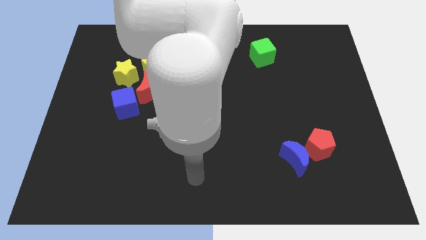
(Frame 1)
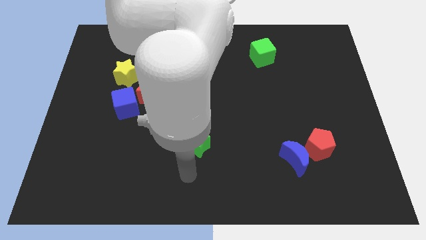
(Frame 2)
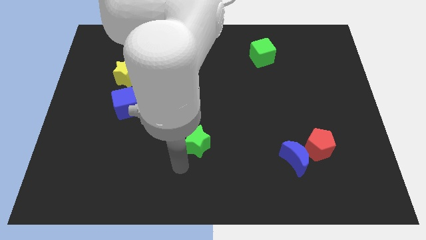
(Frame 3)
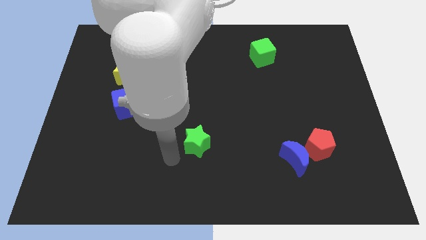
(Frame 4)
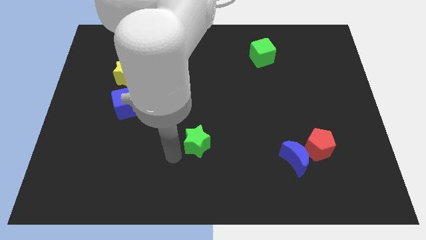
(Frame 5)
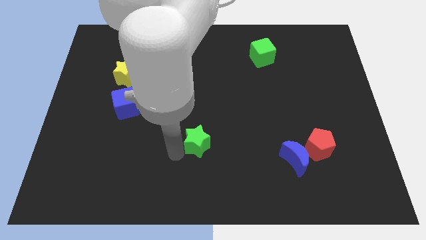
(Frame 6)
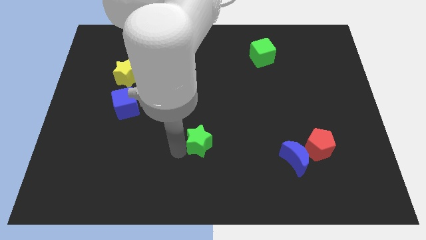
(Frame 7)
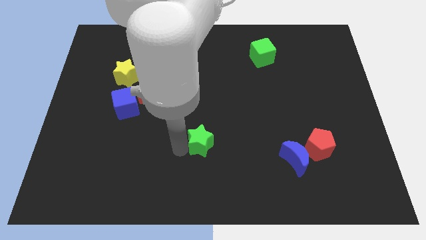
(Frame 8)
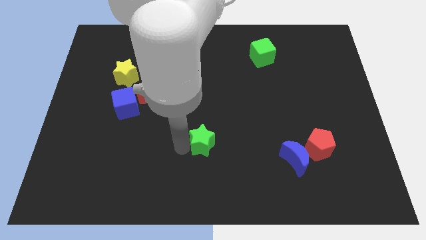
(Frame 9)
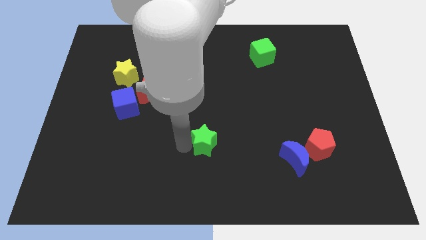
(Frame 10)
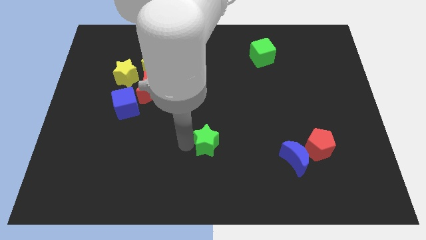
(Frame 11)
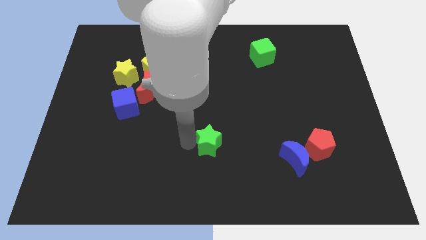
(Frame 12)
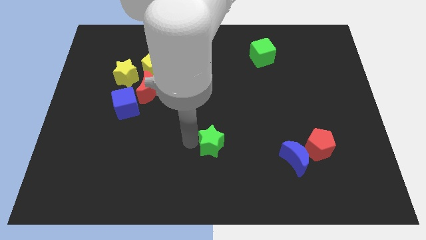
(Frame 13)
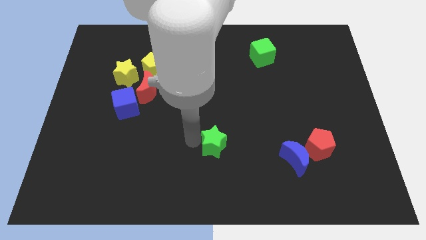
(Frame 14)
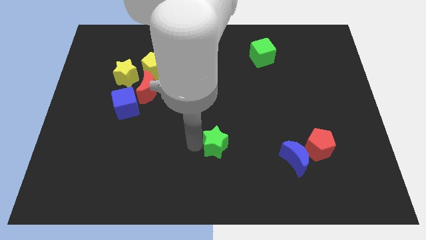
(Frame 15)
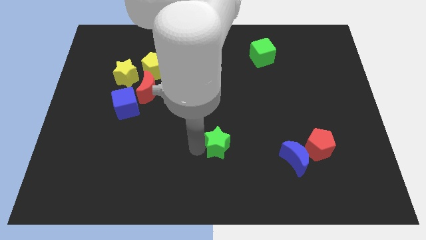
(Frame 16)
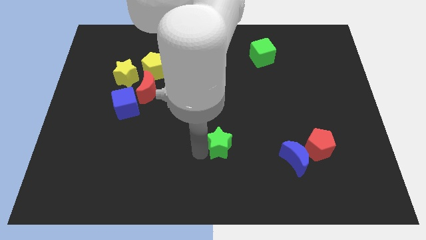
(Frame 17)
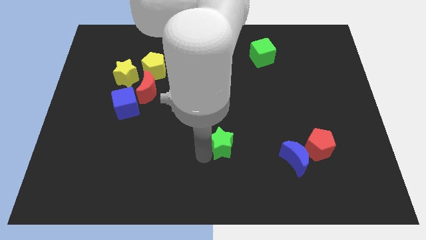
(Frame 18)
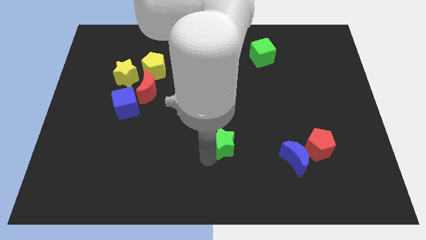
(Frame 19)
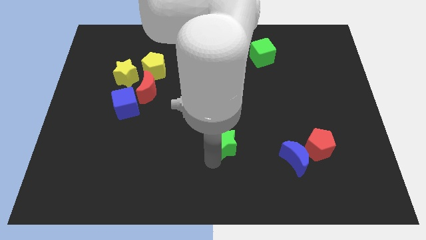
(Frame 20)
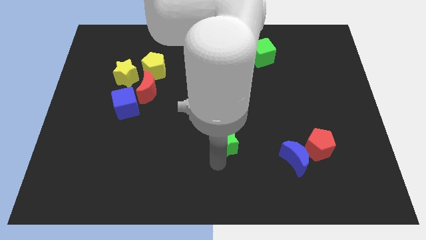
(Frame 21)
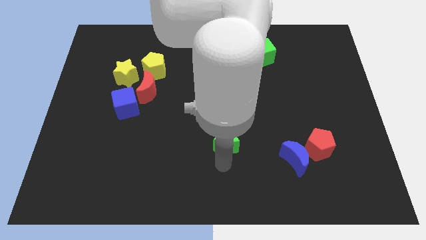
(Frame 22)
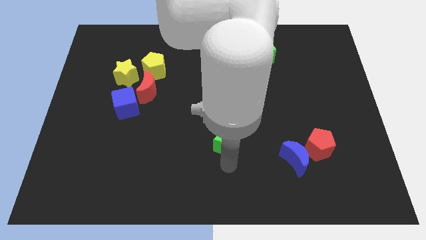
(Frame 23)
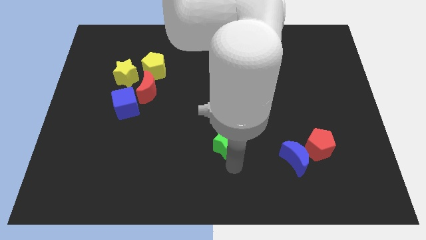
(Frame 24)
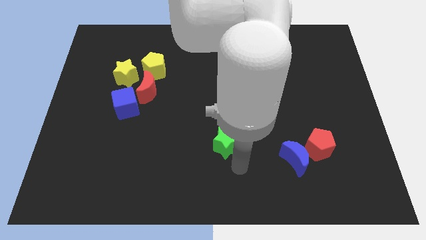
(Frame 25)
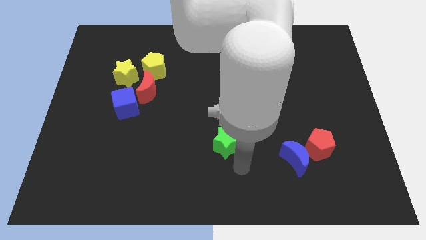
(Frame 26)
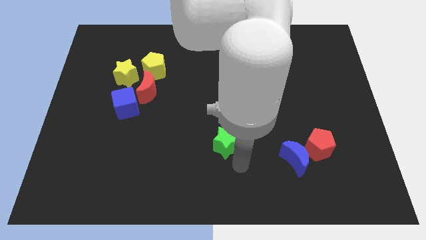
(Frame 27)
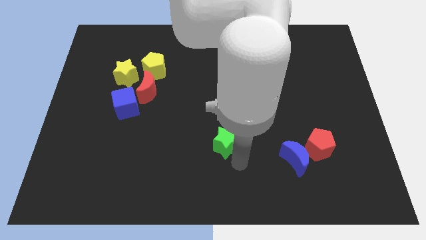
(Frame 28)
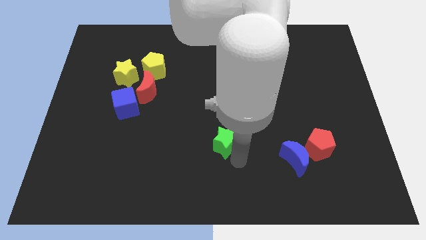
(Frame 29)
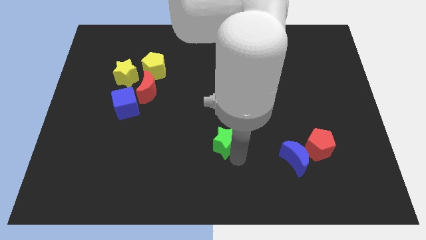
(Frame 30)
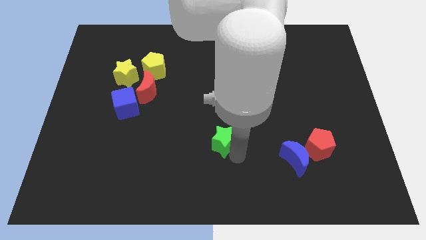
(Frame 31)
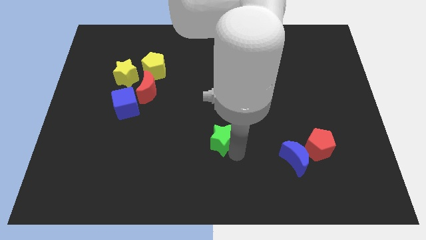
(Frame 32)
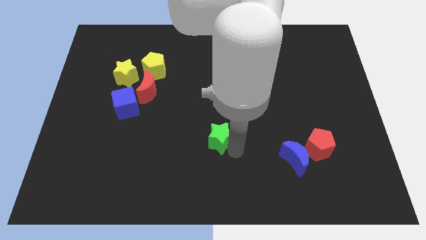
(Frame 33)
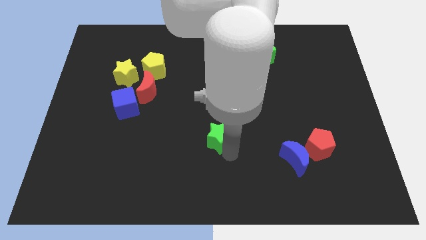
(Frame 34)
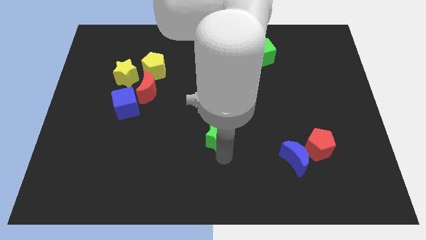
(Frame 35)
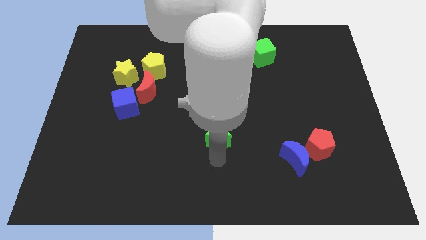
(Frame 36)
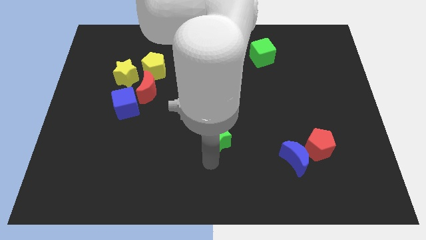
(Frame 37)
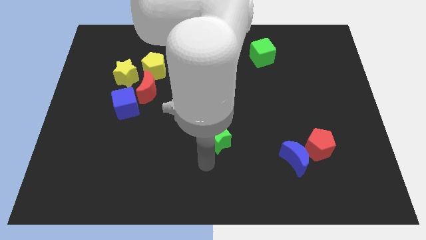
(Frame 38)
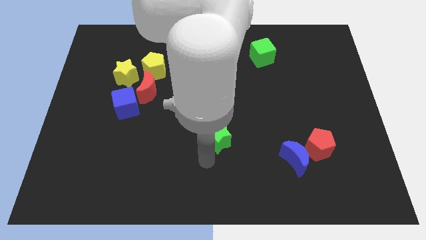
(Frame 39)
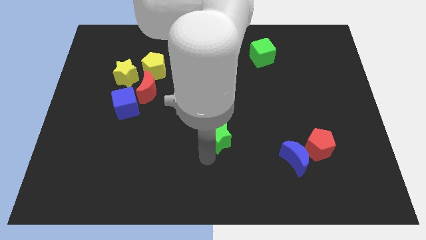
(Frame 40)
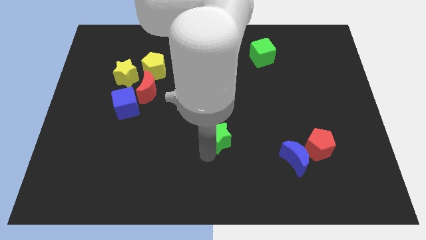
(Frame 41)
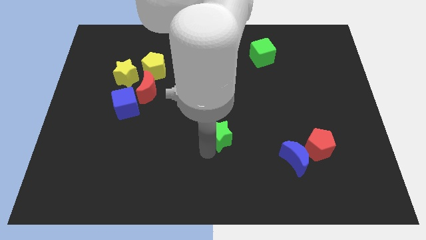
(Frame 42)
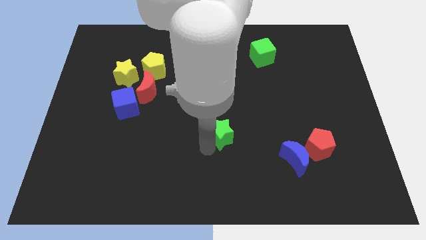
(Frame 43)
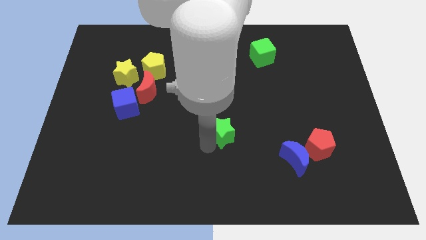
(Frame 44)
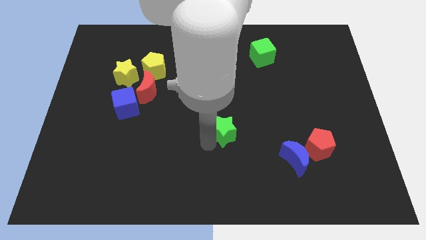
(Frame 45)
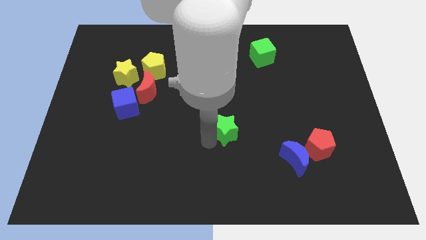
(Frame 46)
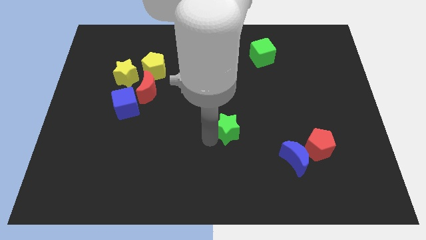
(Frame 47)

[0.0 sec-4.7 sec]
slightly push the green star upwards and right

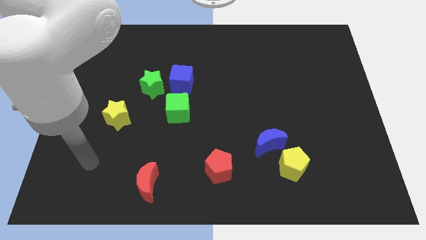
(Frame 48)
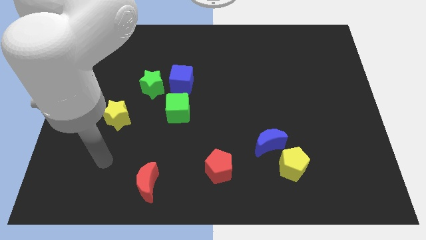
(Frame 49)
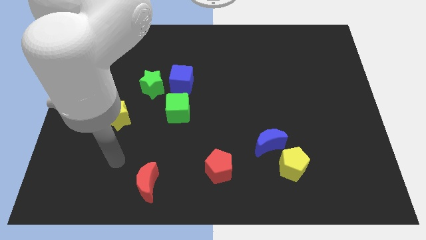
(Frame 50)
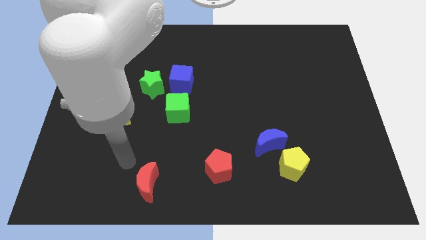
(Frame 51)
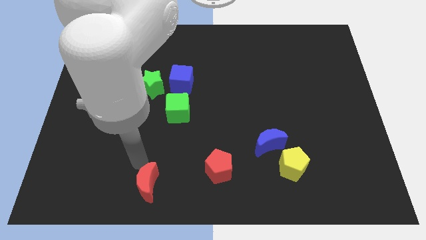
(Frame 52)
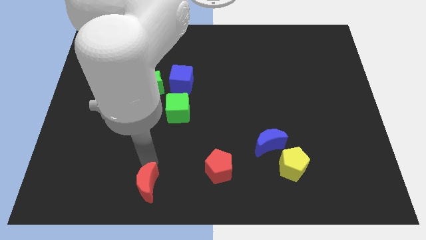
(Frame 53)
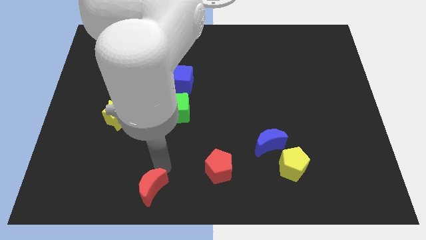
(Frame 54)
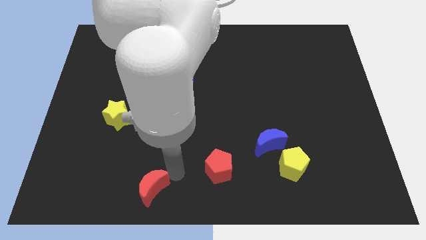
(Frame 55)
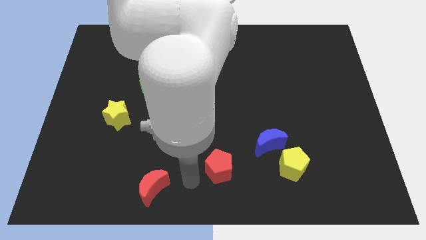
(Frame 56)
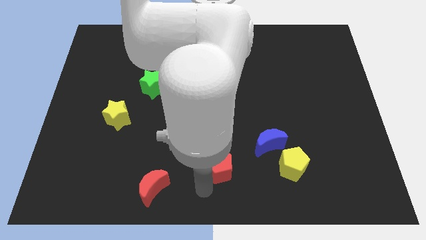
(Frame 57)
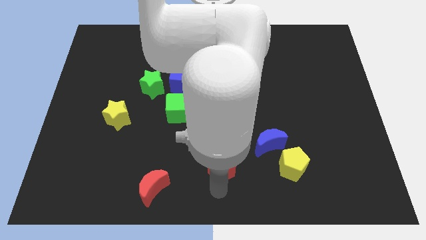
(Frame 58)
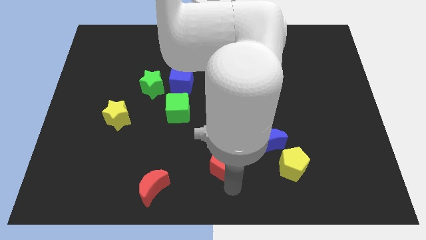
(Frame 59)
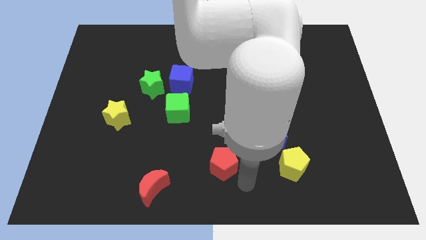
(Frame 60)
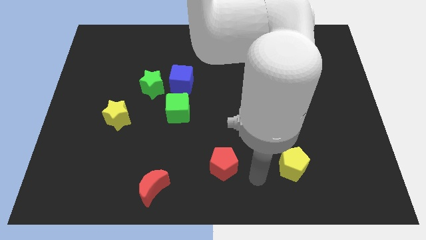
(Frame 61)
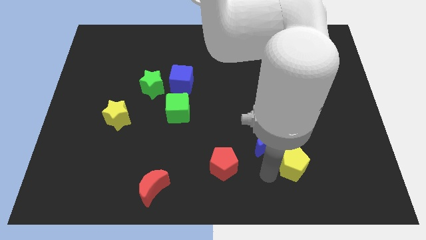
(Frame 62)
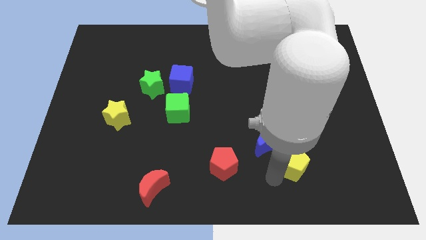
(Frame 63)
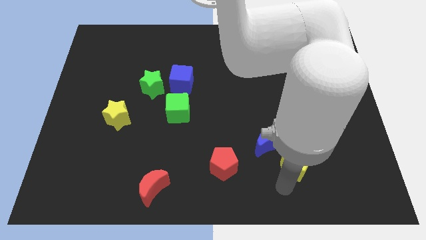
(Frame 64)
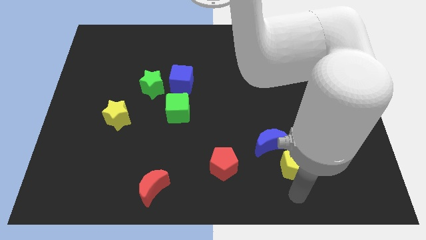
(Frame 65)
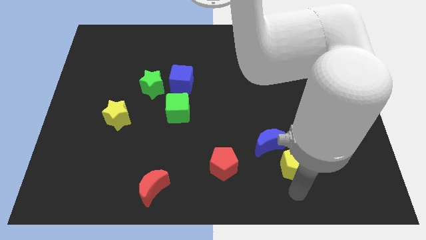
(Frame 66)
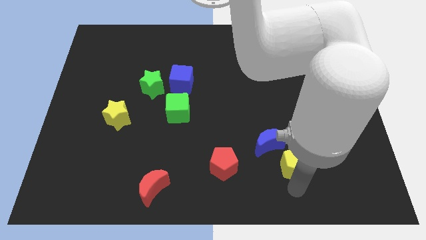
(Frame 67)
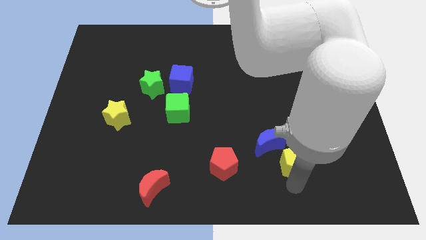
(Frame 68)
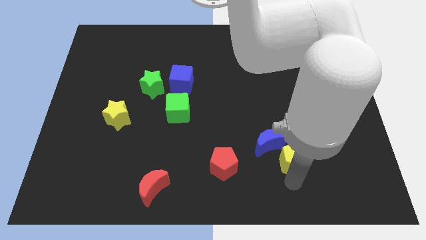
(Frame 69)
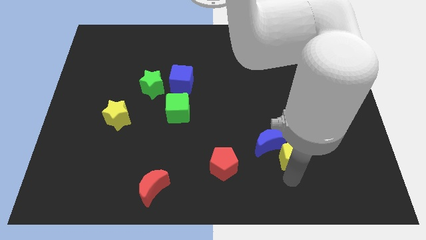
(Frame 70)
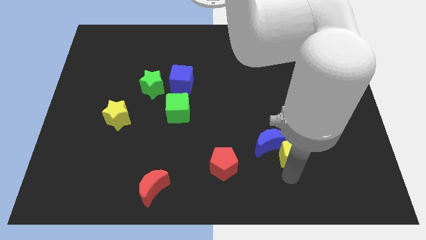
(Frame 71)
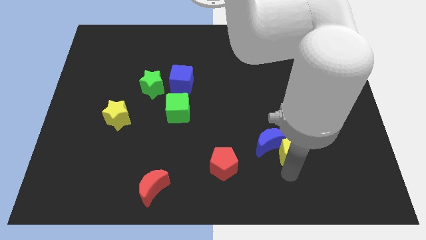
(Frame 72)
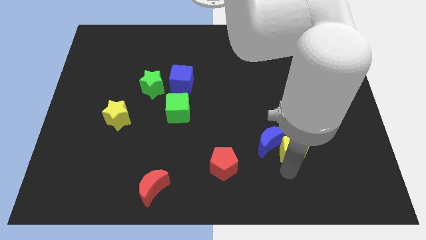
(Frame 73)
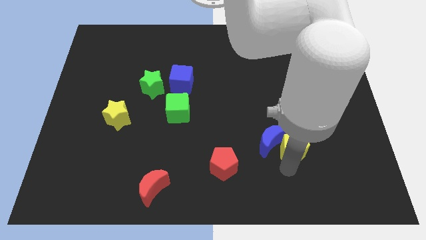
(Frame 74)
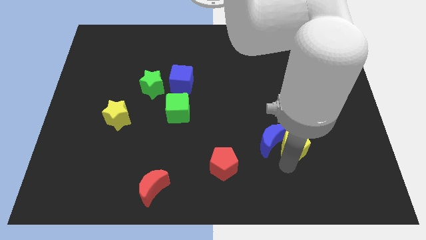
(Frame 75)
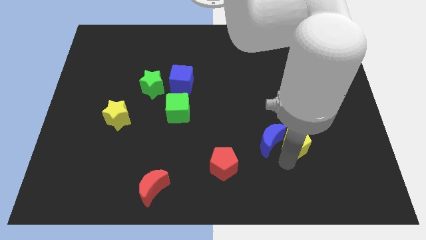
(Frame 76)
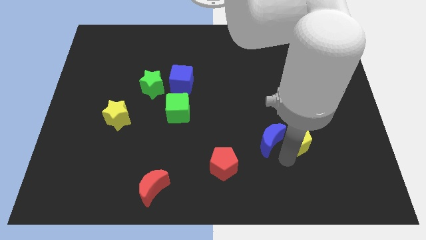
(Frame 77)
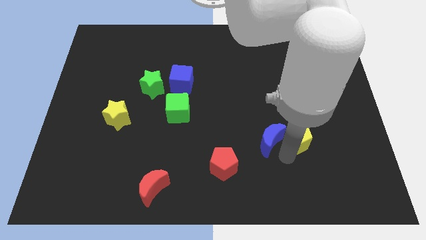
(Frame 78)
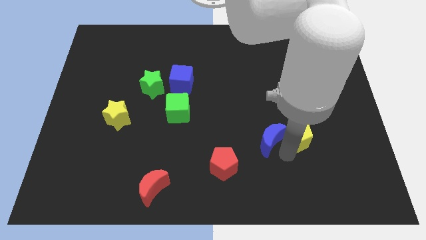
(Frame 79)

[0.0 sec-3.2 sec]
slide the yellow pentagon a little up
